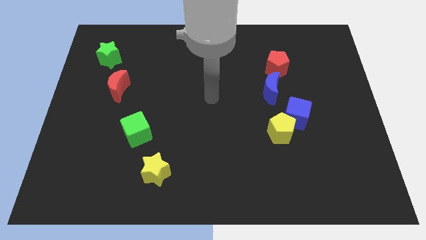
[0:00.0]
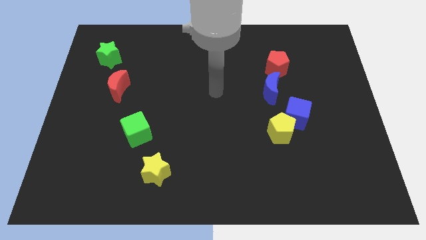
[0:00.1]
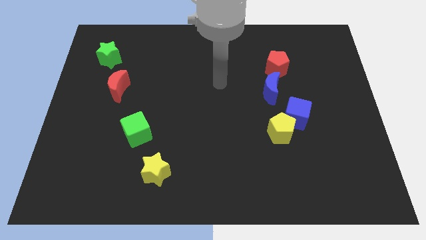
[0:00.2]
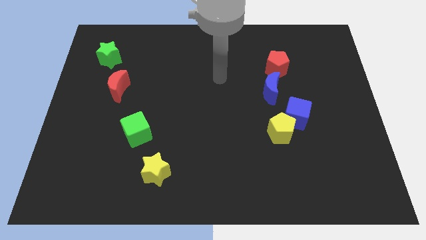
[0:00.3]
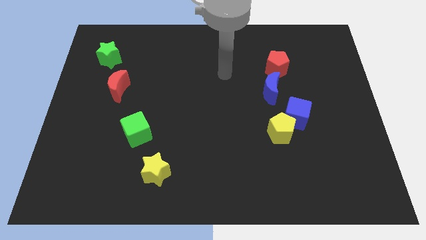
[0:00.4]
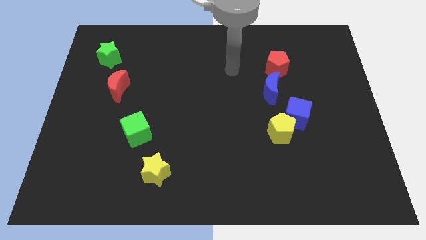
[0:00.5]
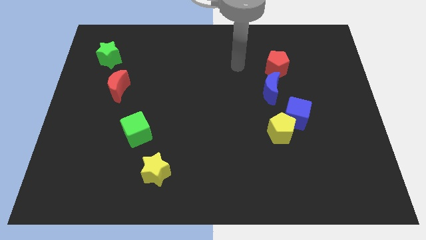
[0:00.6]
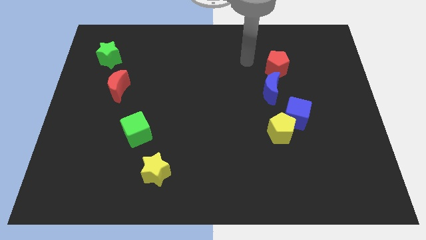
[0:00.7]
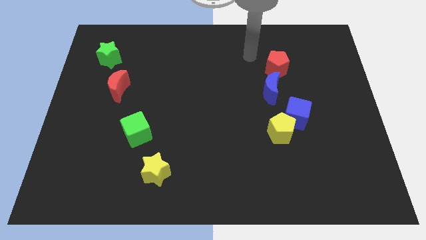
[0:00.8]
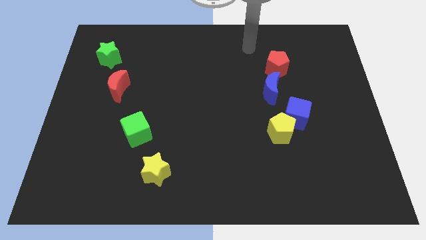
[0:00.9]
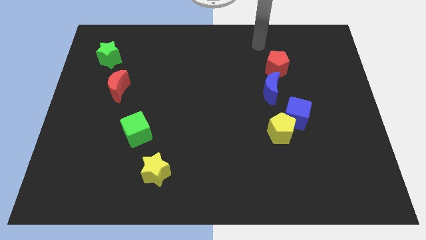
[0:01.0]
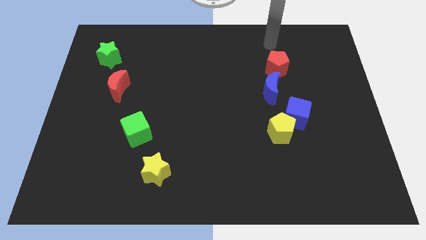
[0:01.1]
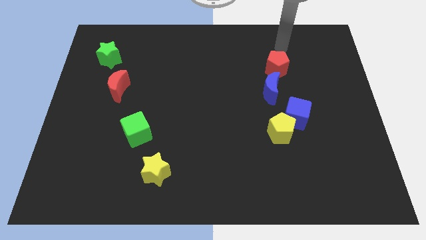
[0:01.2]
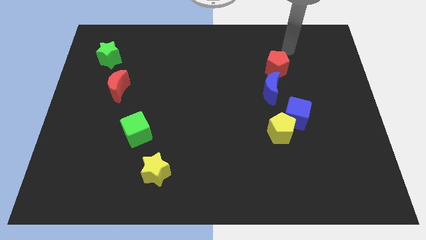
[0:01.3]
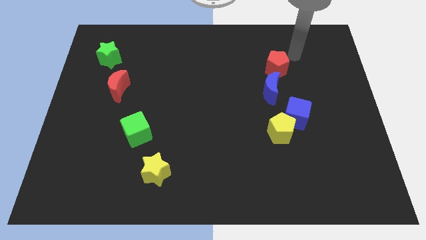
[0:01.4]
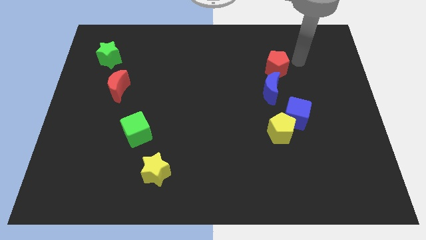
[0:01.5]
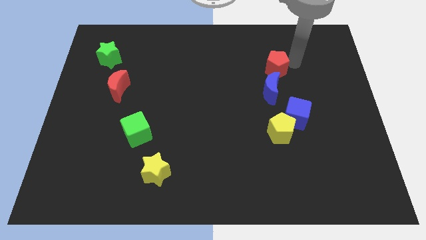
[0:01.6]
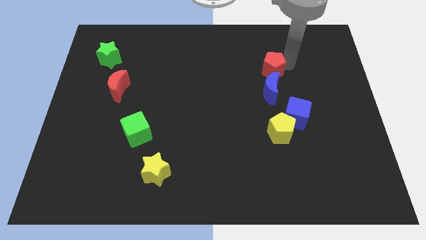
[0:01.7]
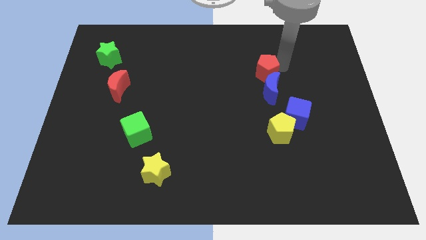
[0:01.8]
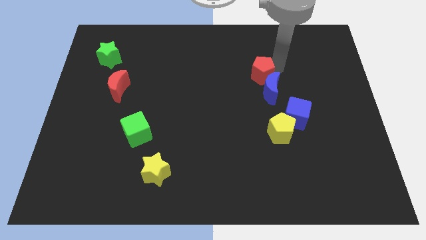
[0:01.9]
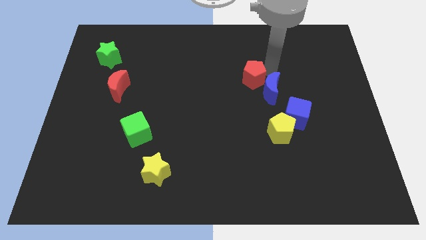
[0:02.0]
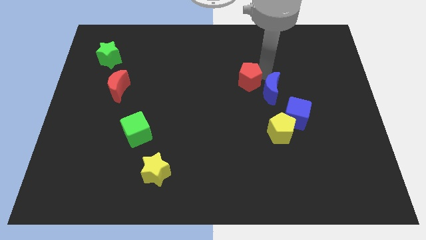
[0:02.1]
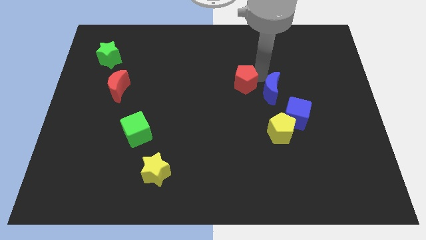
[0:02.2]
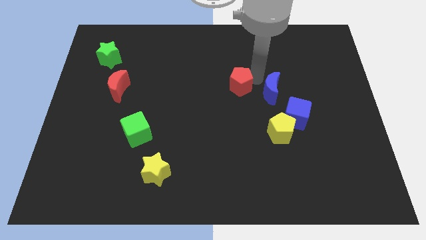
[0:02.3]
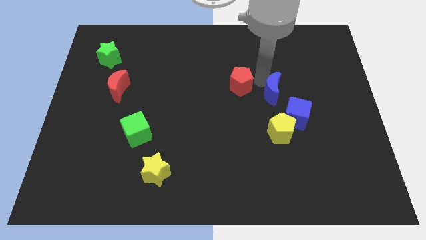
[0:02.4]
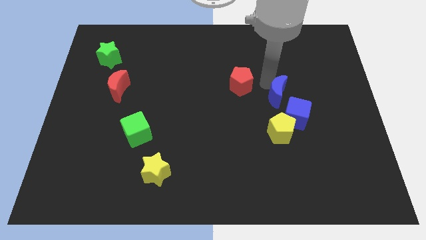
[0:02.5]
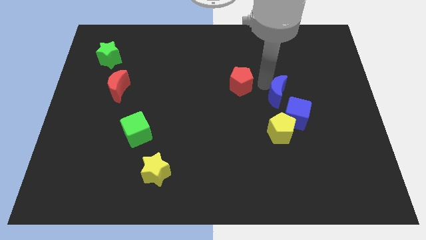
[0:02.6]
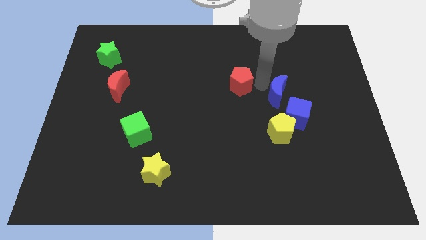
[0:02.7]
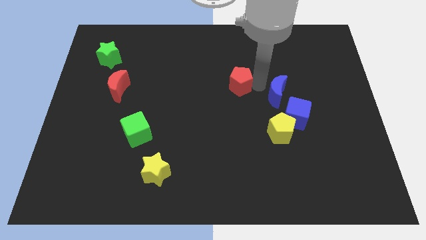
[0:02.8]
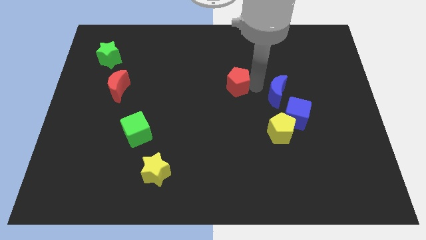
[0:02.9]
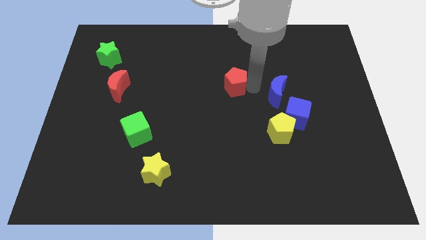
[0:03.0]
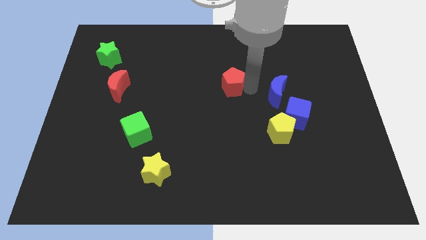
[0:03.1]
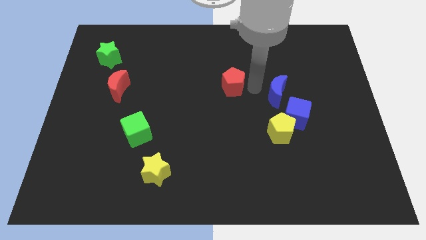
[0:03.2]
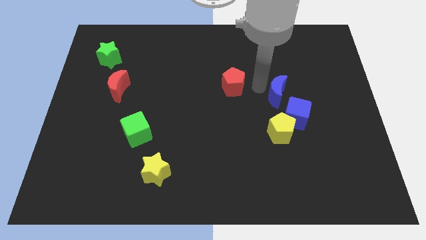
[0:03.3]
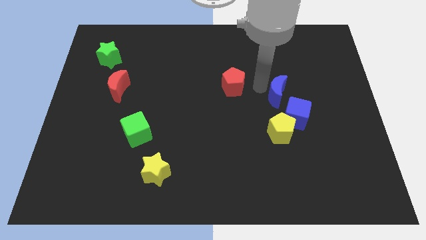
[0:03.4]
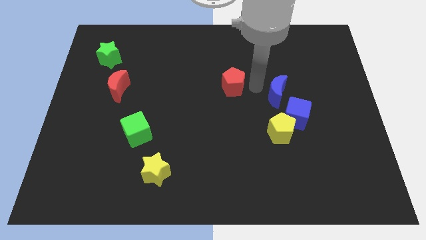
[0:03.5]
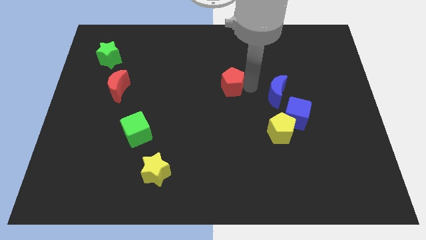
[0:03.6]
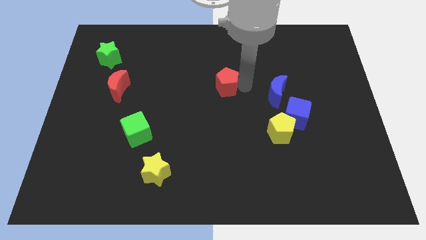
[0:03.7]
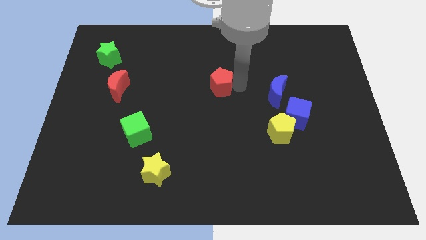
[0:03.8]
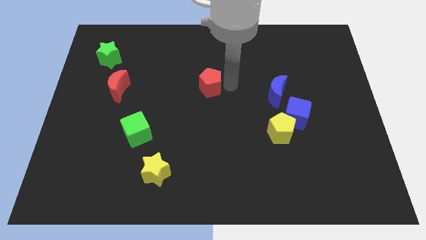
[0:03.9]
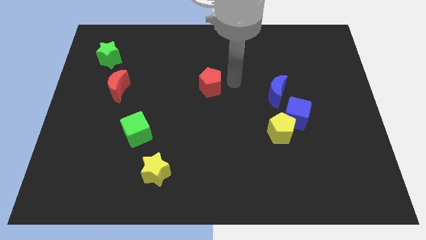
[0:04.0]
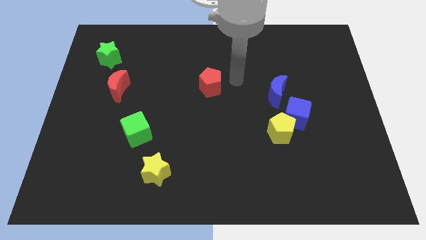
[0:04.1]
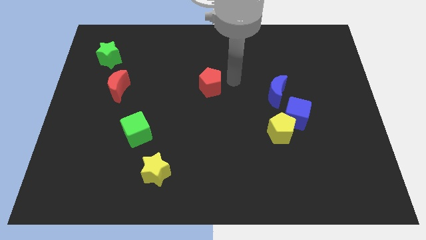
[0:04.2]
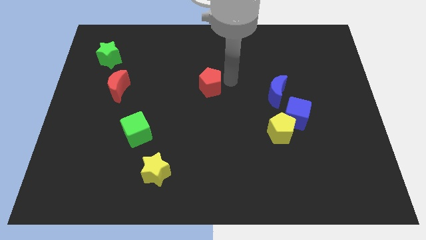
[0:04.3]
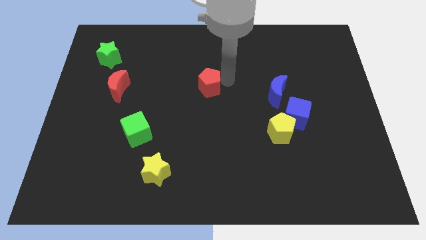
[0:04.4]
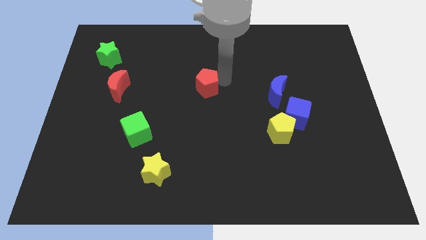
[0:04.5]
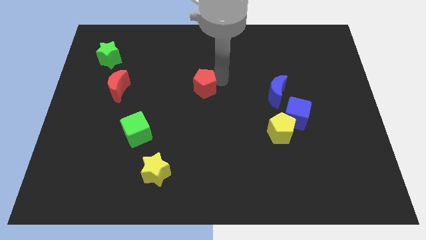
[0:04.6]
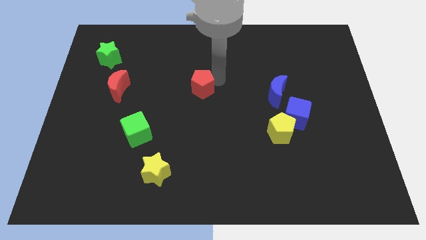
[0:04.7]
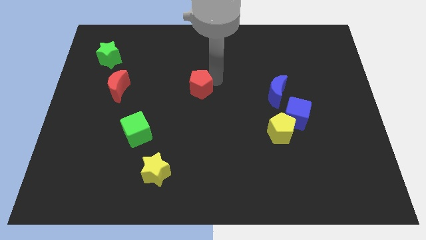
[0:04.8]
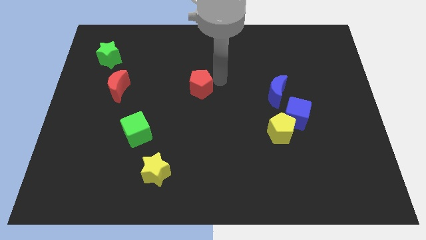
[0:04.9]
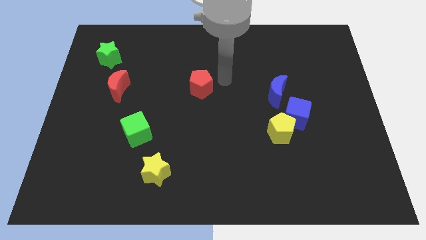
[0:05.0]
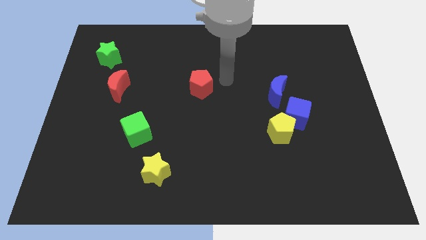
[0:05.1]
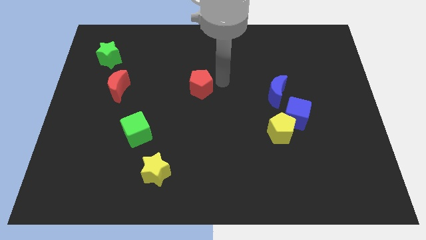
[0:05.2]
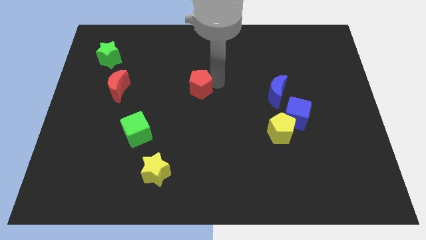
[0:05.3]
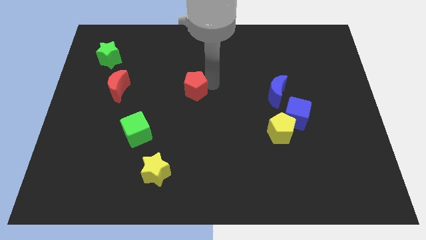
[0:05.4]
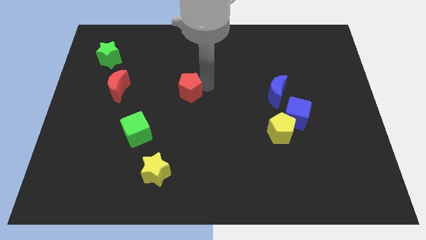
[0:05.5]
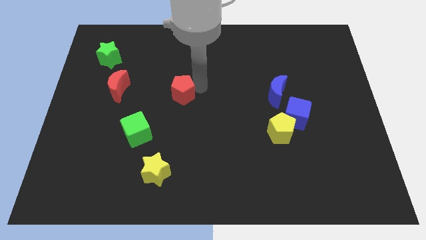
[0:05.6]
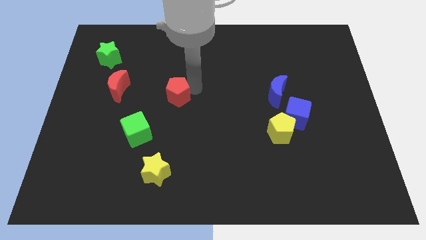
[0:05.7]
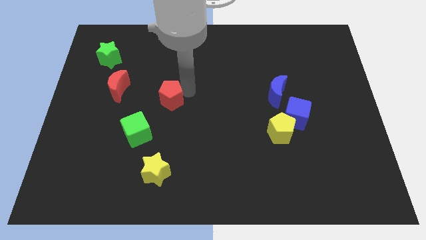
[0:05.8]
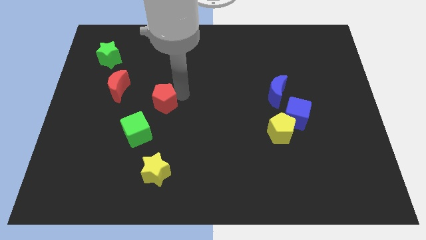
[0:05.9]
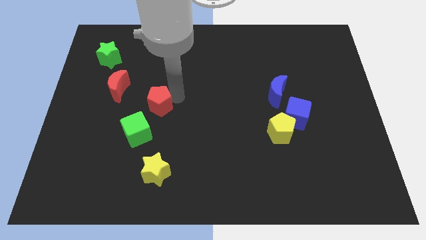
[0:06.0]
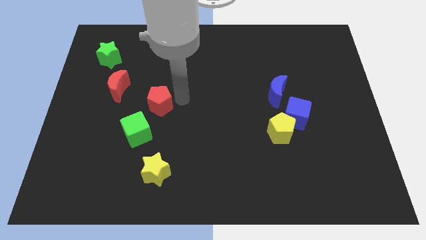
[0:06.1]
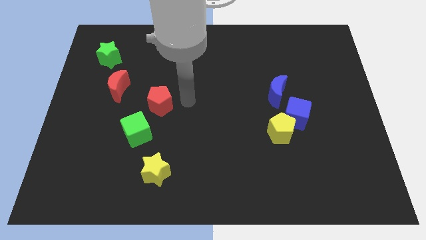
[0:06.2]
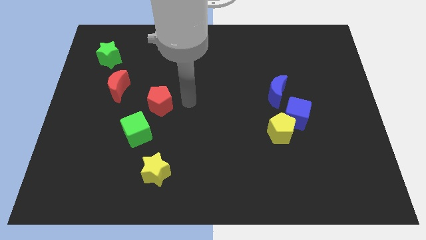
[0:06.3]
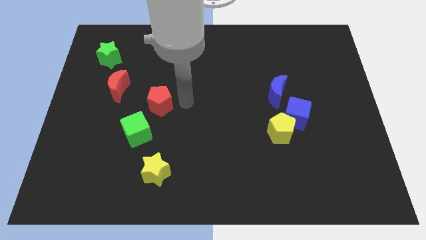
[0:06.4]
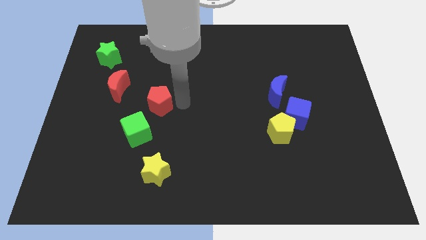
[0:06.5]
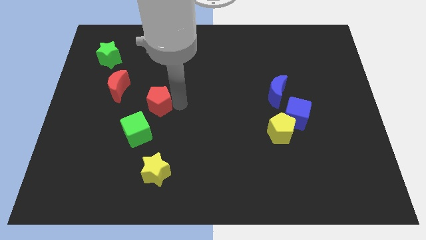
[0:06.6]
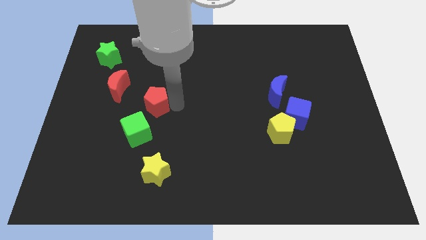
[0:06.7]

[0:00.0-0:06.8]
move the red pentagon diagonally down and to the right of the red moon

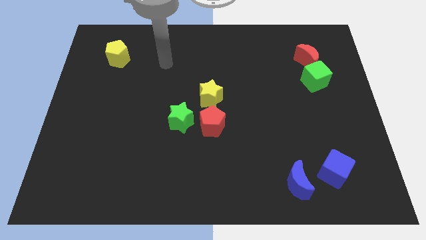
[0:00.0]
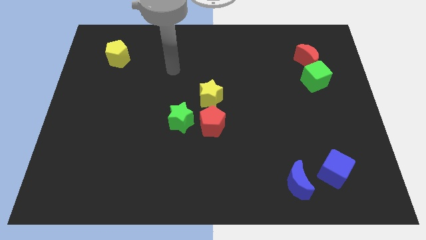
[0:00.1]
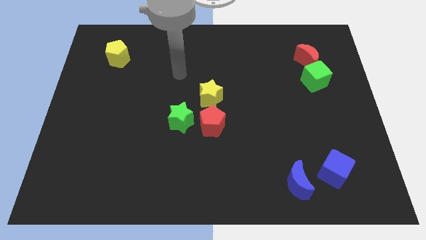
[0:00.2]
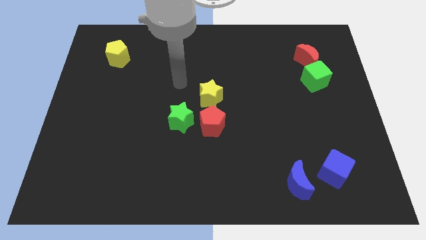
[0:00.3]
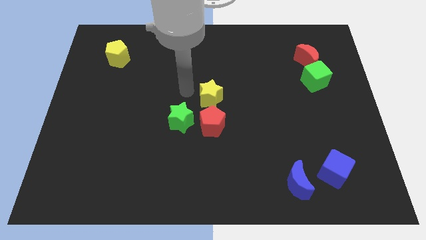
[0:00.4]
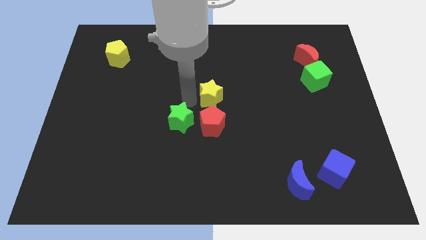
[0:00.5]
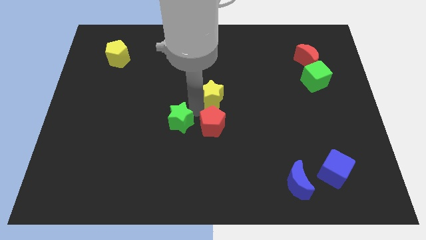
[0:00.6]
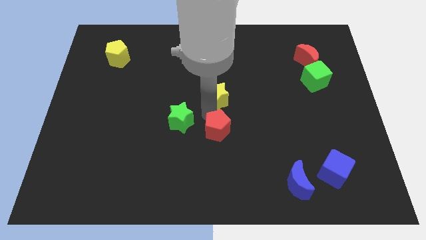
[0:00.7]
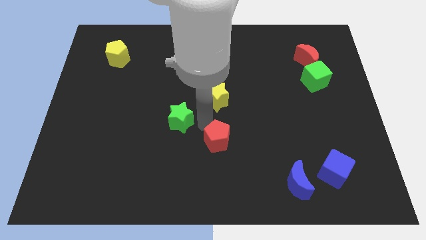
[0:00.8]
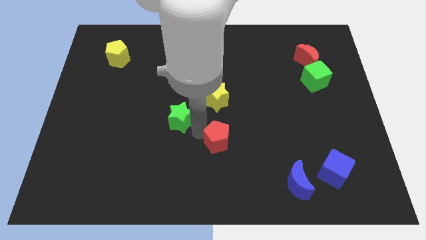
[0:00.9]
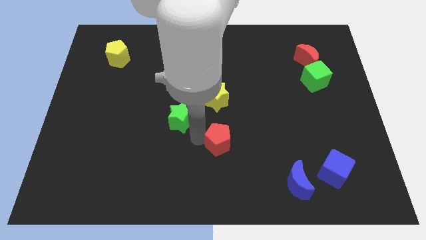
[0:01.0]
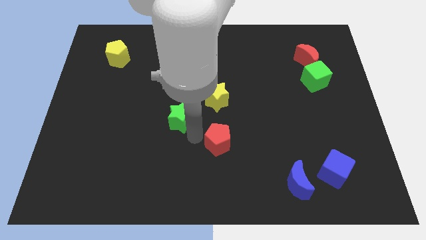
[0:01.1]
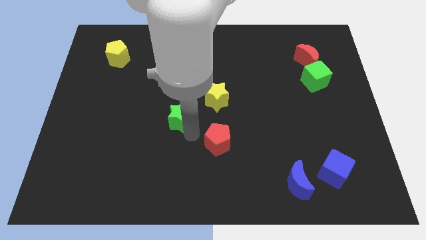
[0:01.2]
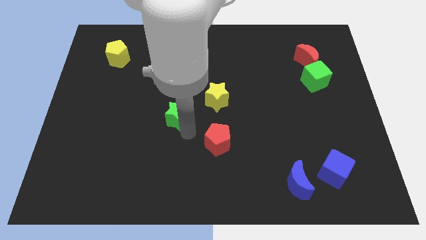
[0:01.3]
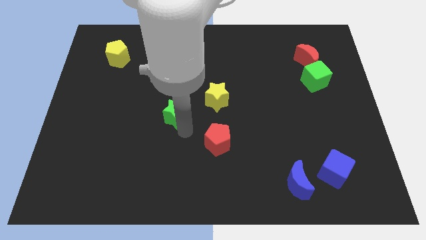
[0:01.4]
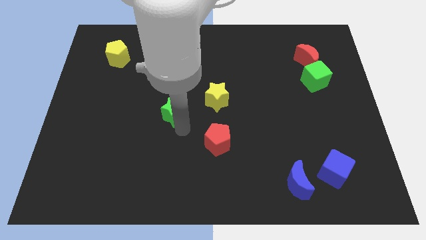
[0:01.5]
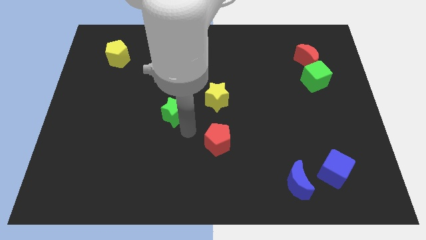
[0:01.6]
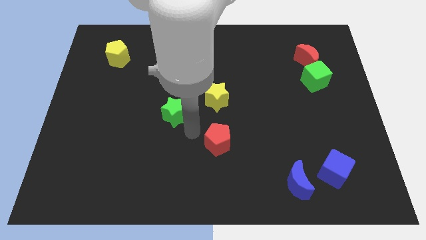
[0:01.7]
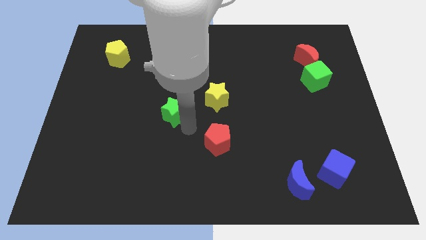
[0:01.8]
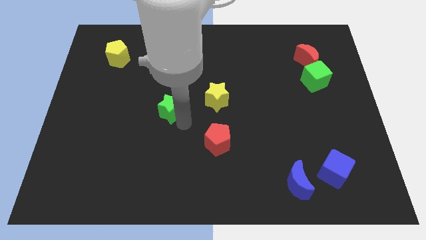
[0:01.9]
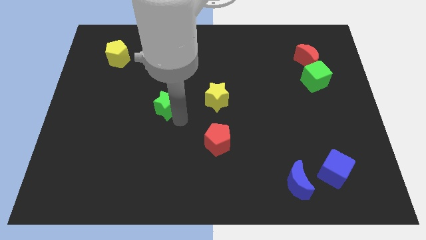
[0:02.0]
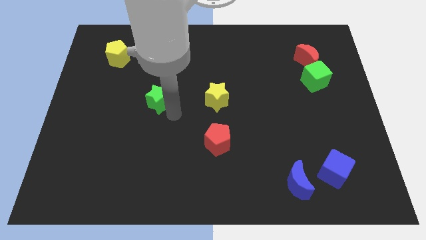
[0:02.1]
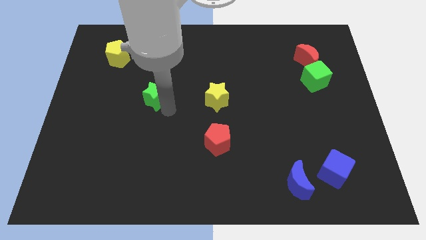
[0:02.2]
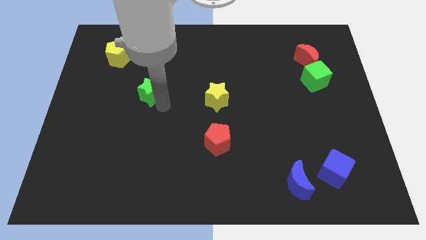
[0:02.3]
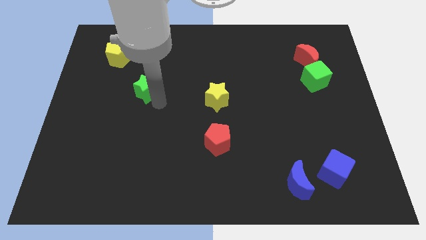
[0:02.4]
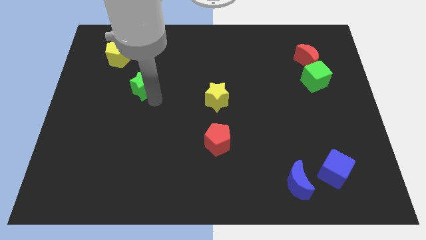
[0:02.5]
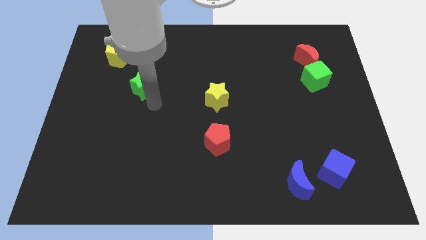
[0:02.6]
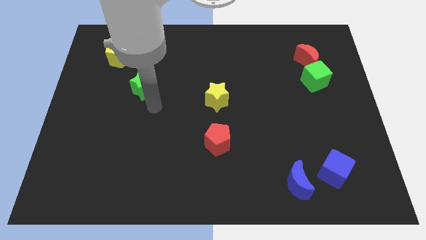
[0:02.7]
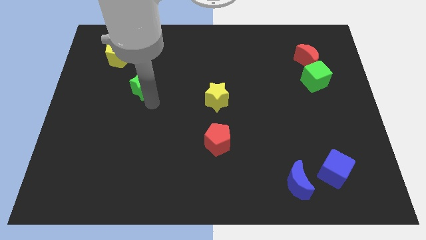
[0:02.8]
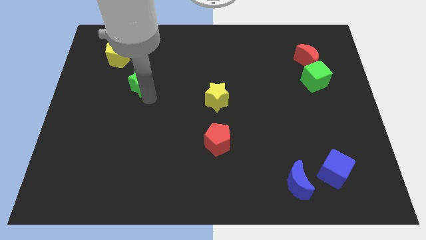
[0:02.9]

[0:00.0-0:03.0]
slide the green star to the bottom right side of the yellow pentagon
